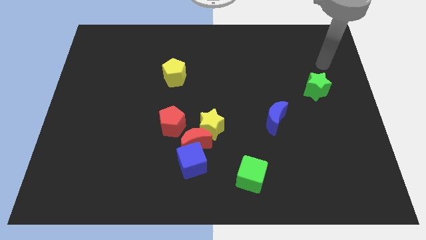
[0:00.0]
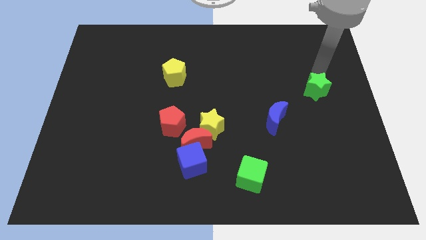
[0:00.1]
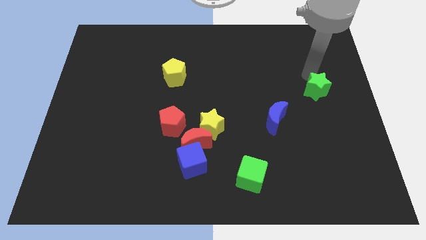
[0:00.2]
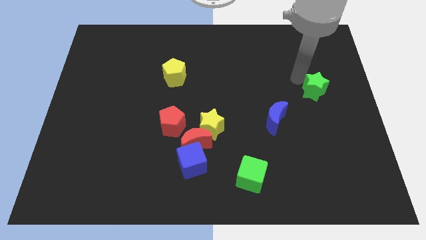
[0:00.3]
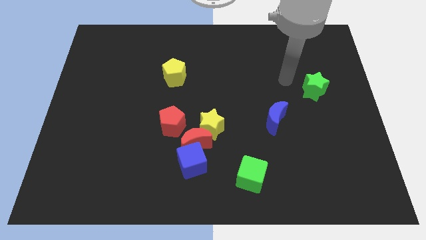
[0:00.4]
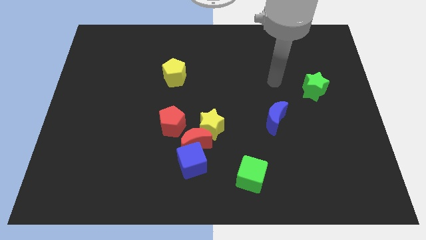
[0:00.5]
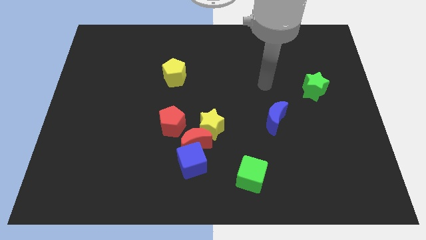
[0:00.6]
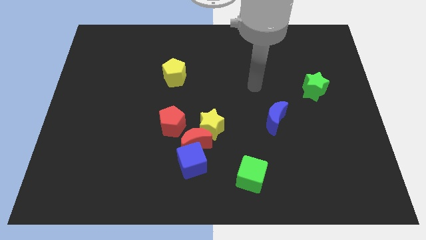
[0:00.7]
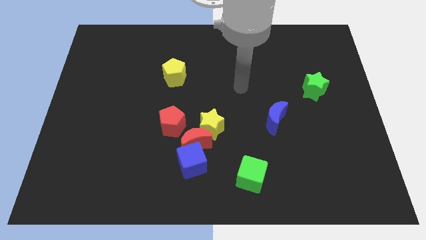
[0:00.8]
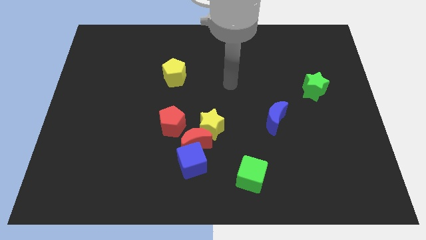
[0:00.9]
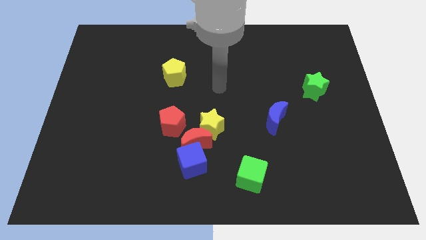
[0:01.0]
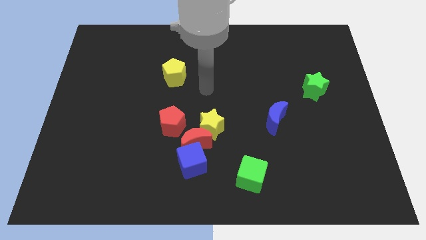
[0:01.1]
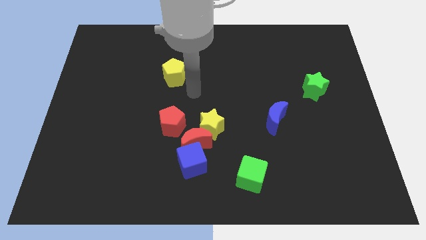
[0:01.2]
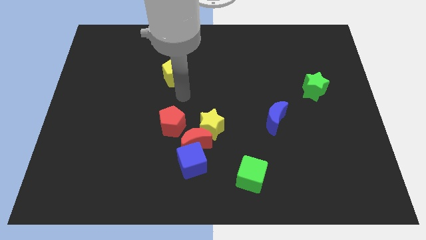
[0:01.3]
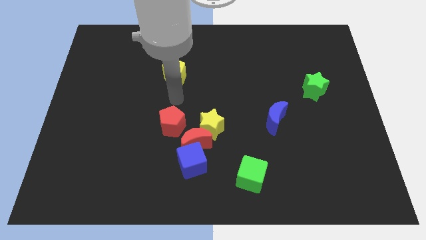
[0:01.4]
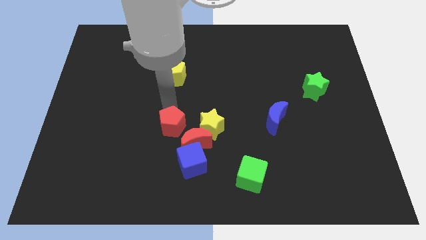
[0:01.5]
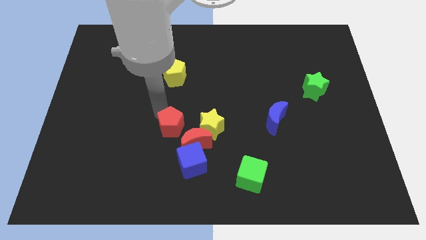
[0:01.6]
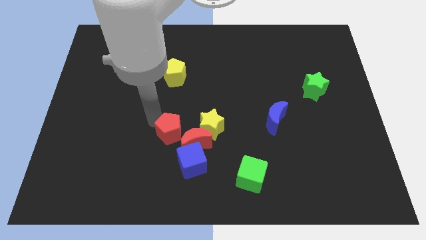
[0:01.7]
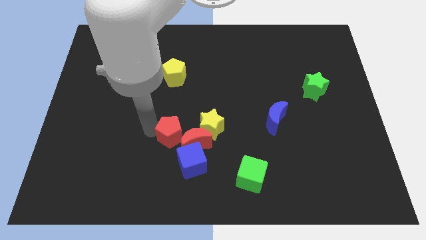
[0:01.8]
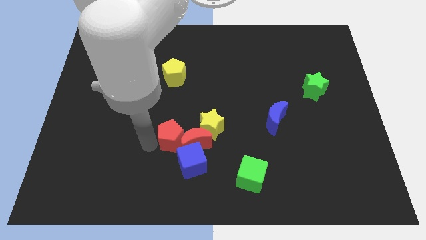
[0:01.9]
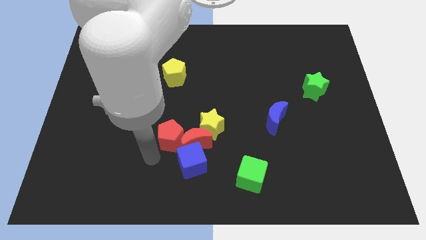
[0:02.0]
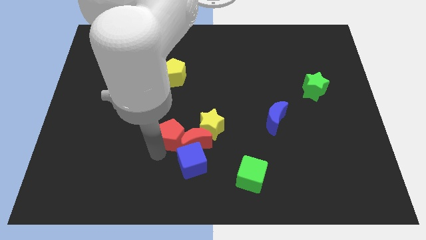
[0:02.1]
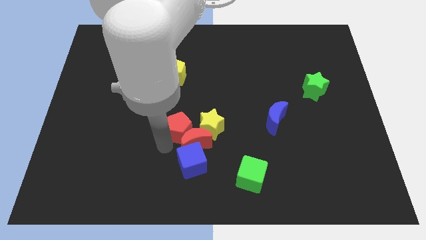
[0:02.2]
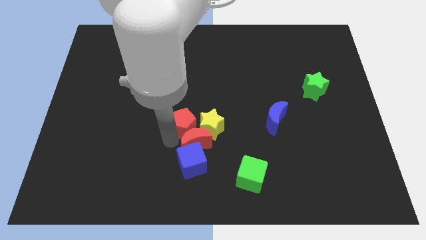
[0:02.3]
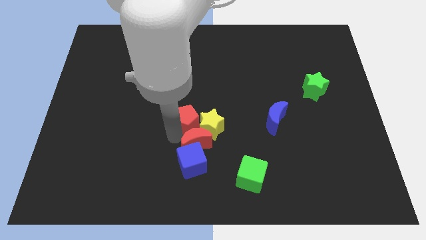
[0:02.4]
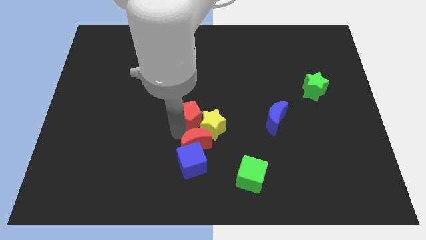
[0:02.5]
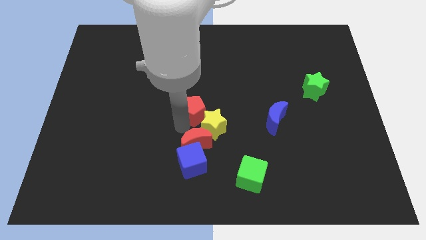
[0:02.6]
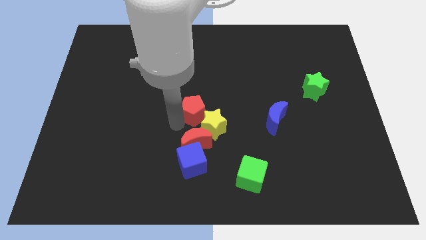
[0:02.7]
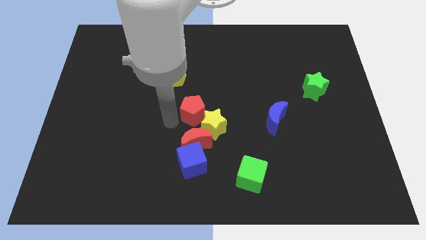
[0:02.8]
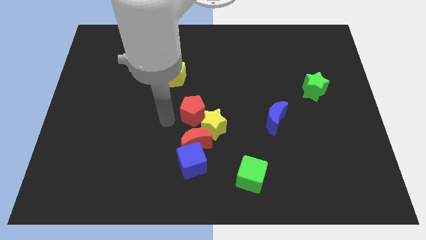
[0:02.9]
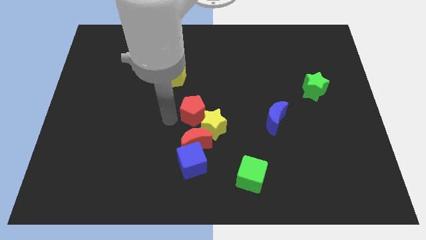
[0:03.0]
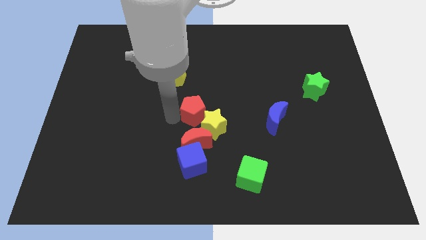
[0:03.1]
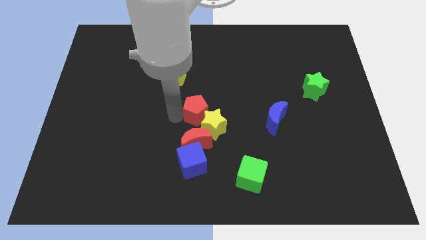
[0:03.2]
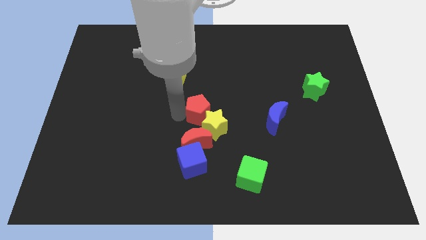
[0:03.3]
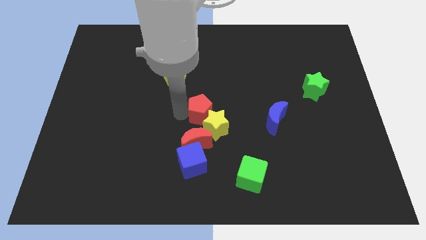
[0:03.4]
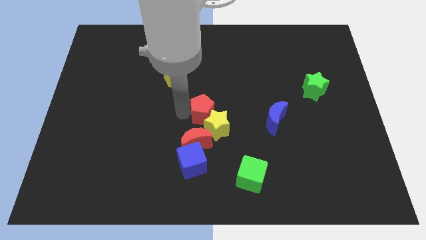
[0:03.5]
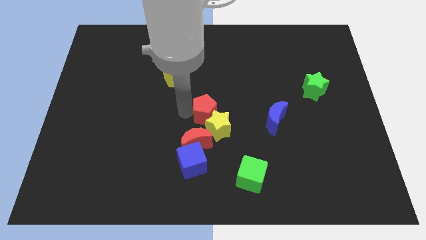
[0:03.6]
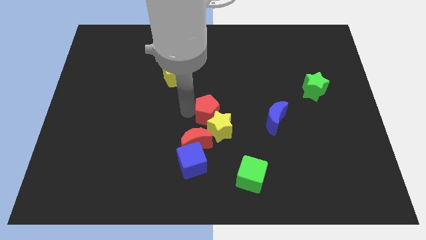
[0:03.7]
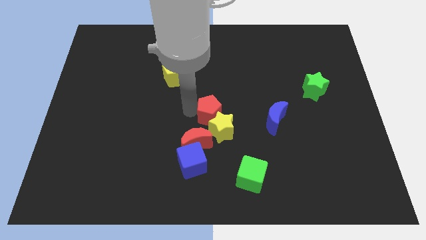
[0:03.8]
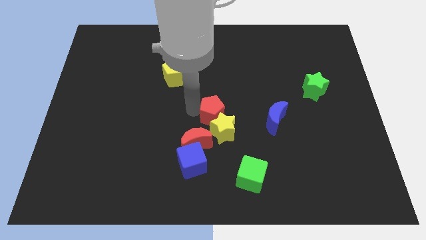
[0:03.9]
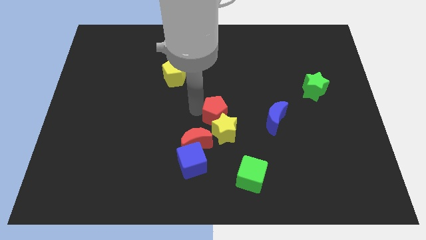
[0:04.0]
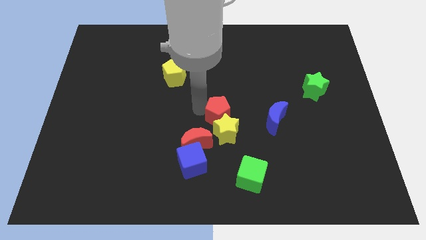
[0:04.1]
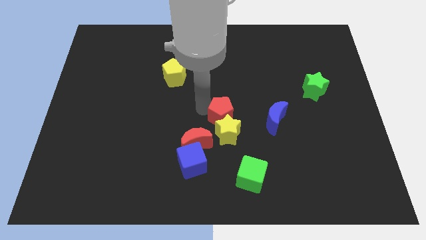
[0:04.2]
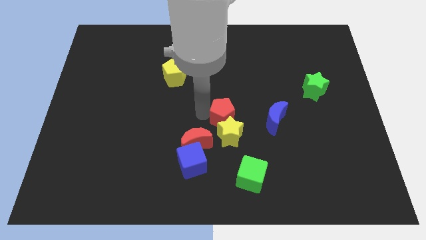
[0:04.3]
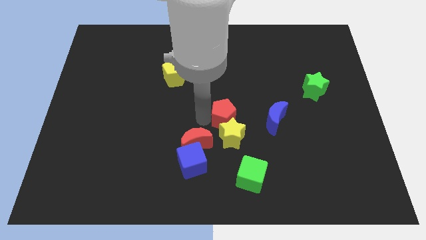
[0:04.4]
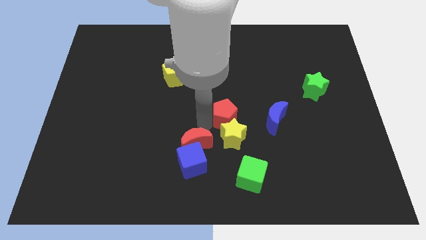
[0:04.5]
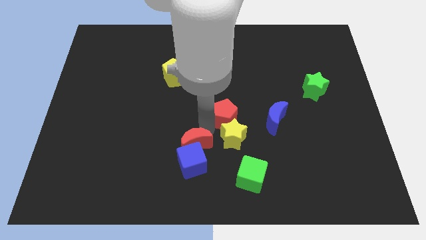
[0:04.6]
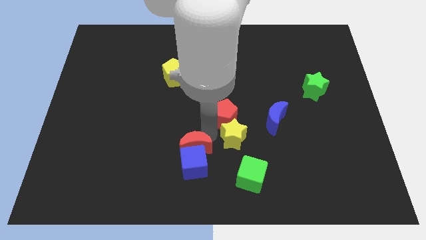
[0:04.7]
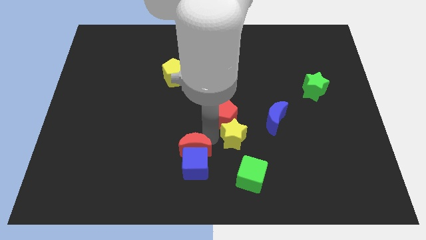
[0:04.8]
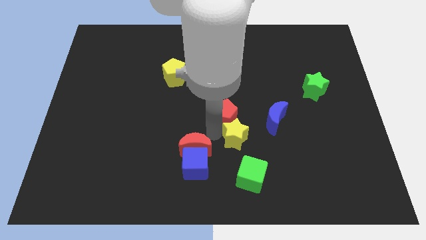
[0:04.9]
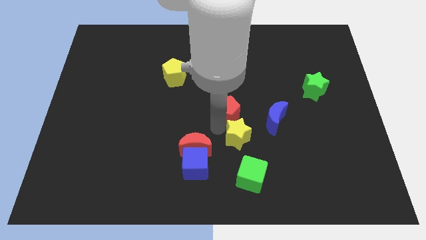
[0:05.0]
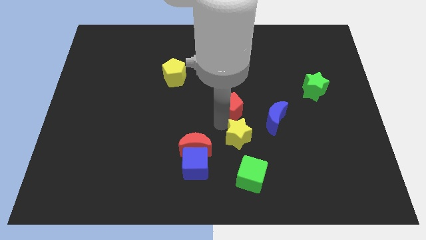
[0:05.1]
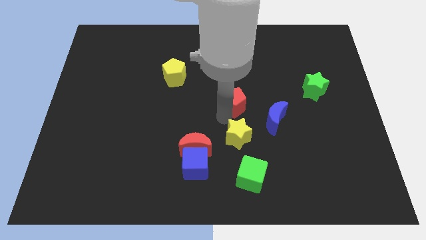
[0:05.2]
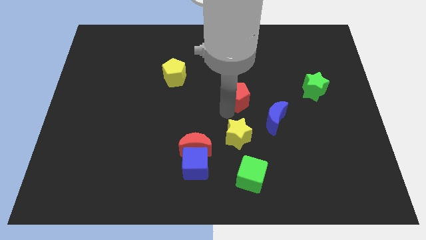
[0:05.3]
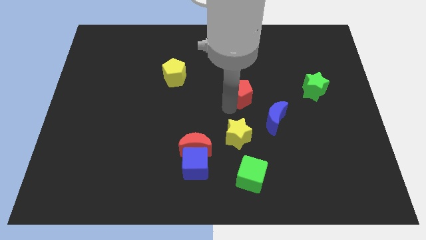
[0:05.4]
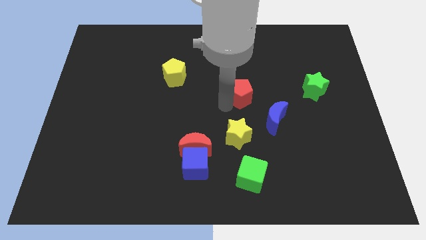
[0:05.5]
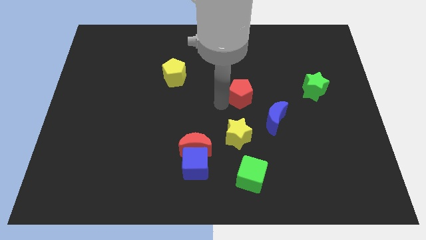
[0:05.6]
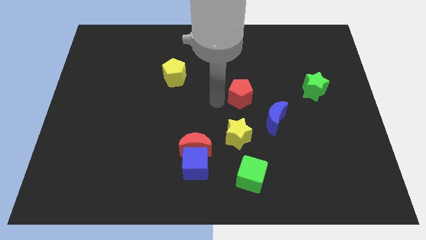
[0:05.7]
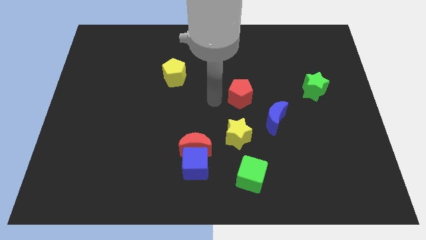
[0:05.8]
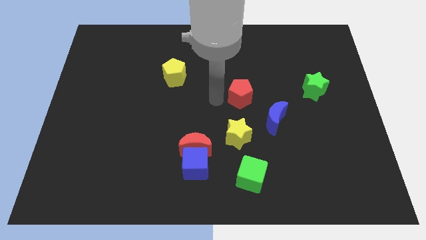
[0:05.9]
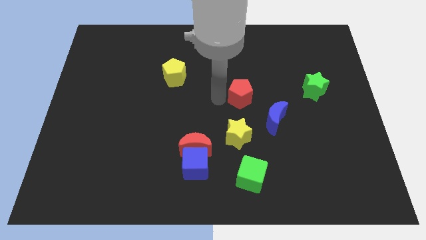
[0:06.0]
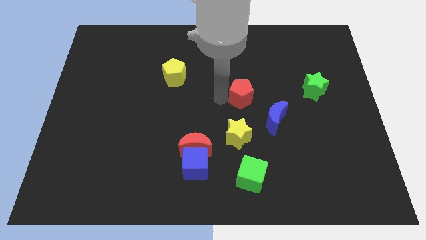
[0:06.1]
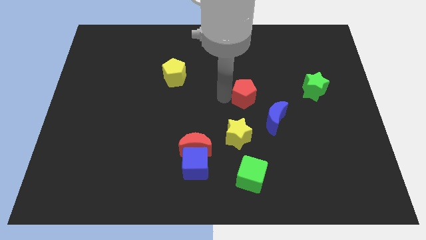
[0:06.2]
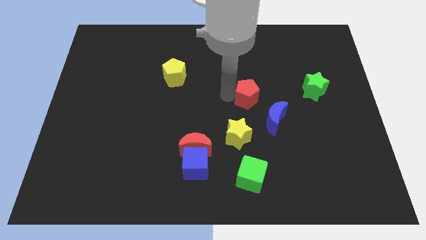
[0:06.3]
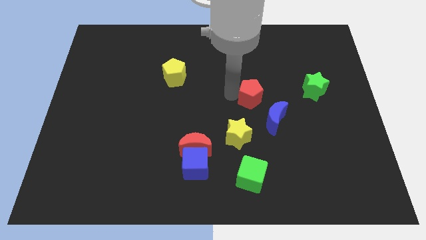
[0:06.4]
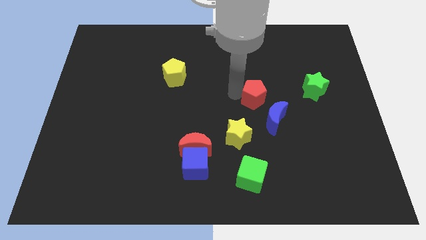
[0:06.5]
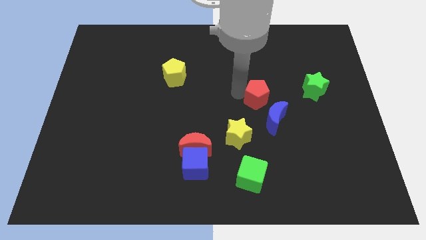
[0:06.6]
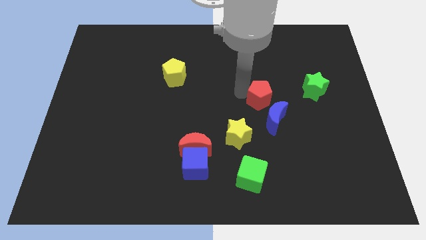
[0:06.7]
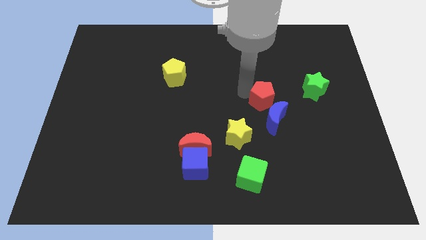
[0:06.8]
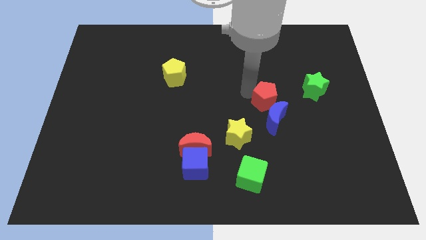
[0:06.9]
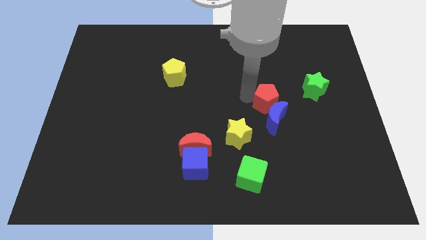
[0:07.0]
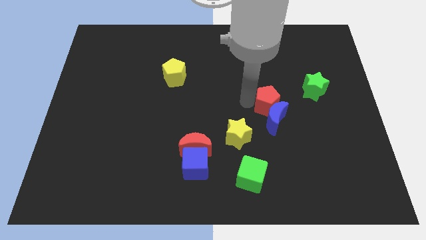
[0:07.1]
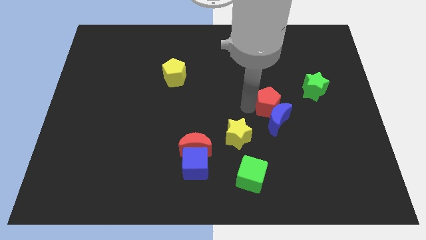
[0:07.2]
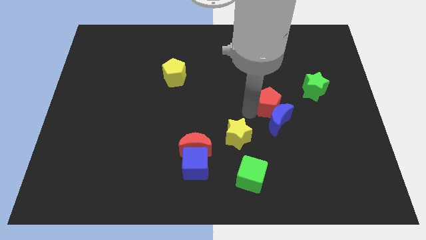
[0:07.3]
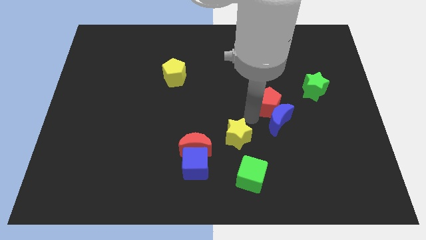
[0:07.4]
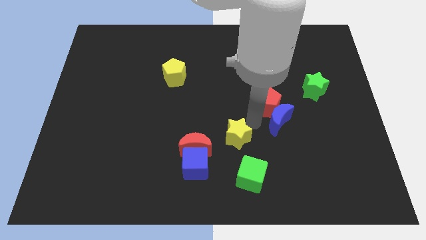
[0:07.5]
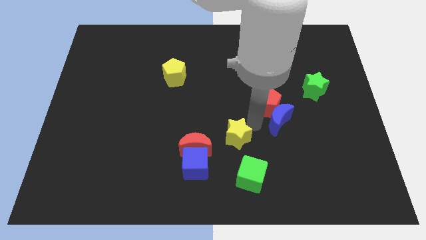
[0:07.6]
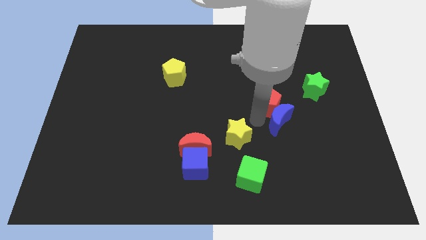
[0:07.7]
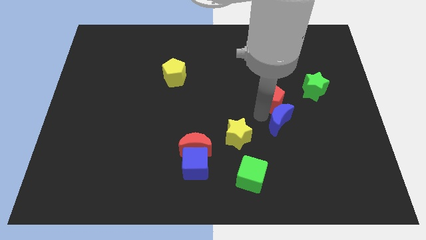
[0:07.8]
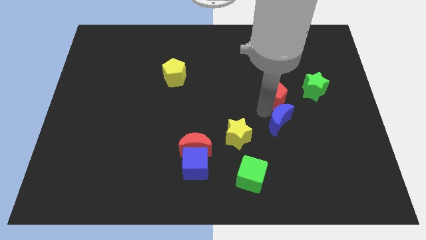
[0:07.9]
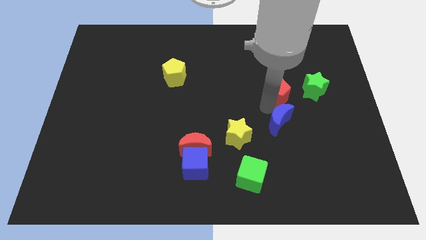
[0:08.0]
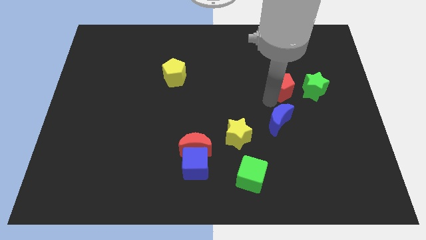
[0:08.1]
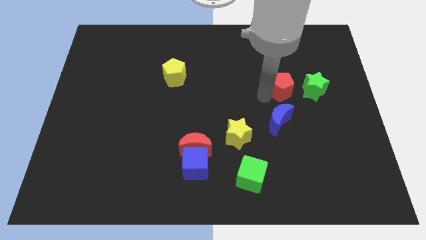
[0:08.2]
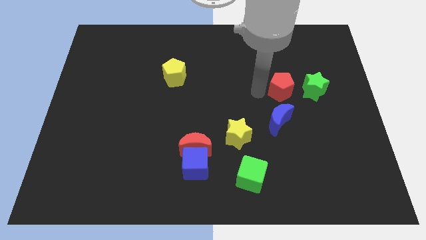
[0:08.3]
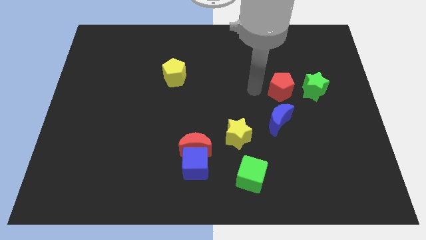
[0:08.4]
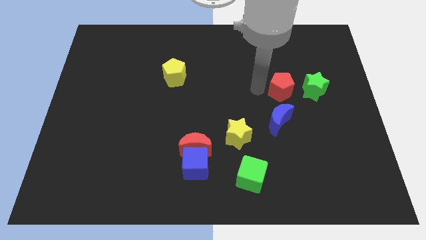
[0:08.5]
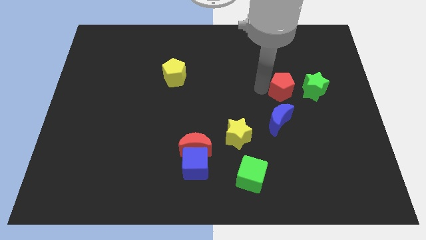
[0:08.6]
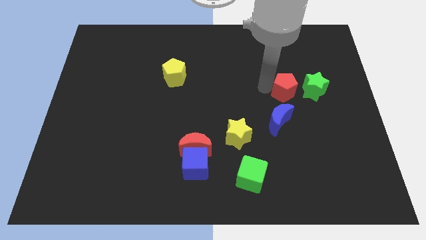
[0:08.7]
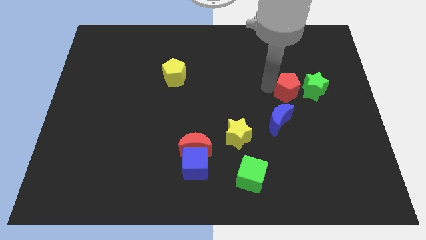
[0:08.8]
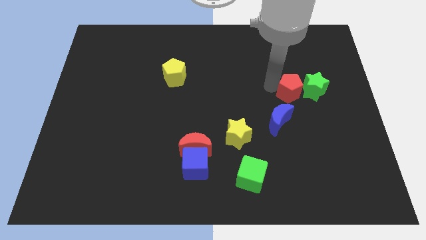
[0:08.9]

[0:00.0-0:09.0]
push the red pentagon towards the green star
